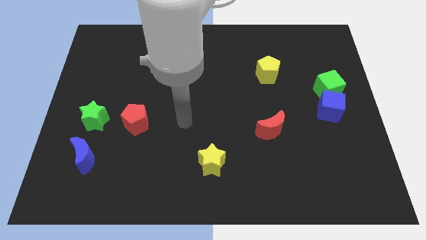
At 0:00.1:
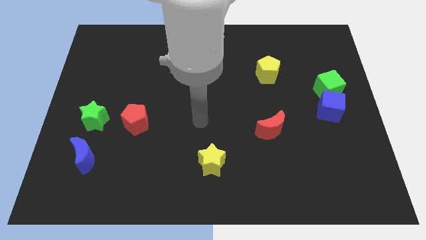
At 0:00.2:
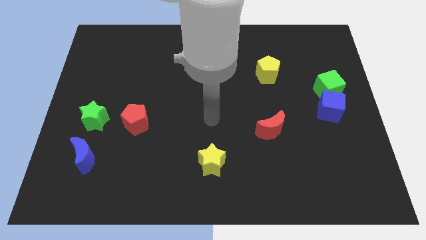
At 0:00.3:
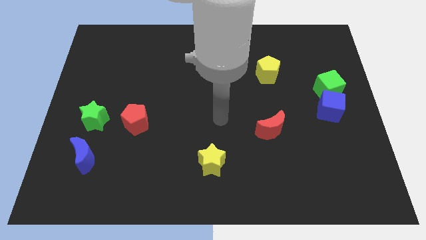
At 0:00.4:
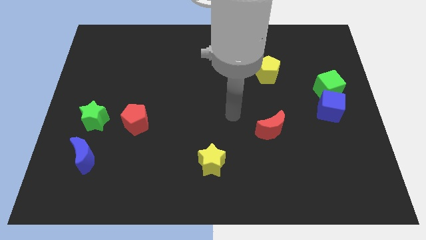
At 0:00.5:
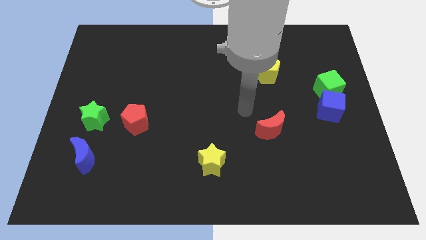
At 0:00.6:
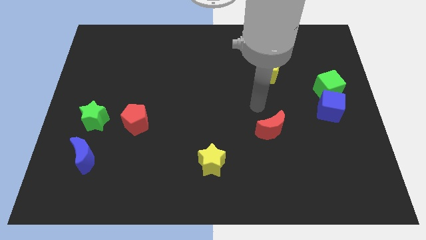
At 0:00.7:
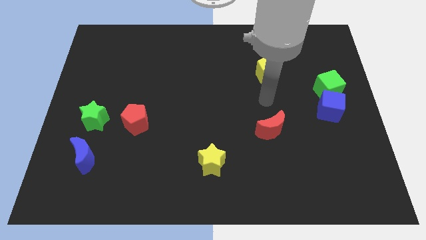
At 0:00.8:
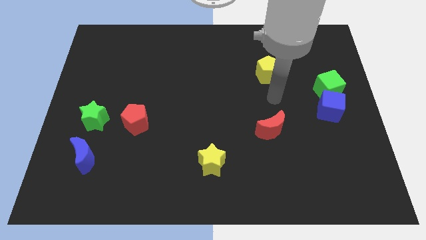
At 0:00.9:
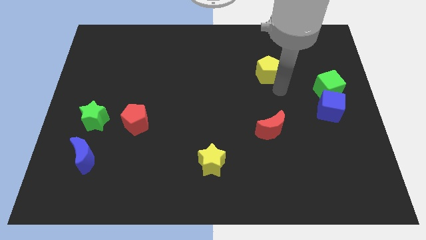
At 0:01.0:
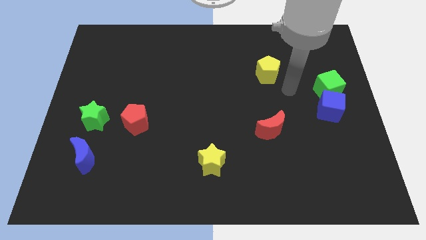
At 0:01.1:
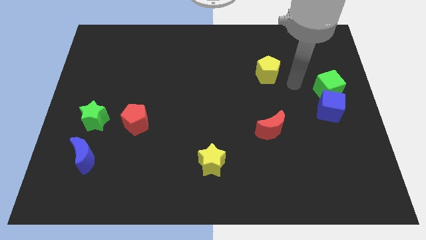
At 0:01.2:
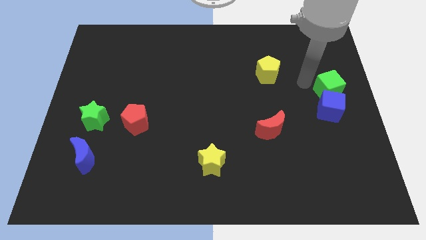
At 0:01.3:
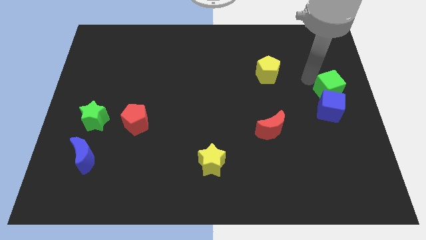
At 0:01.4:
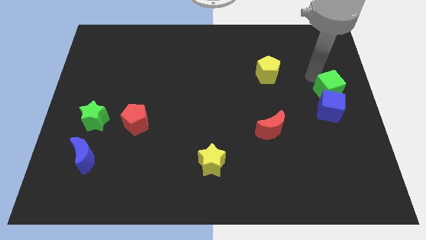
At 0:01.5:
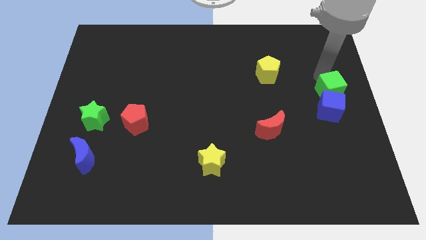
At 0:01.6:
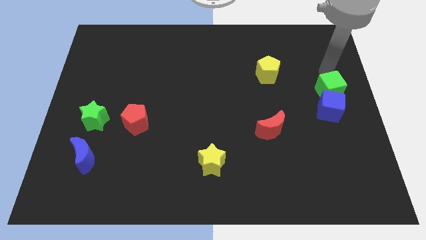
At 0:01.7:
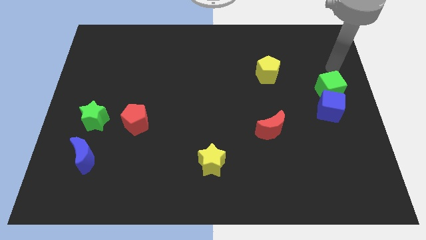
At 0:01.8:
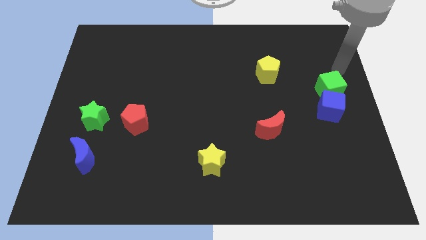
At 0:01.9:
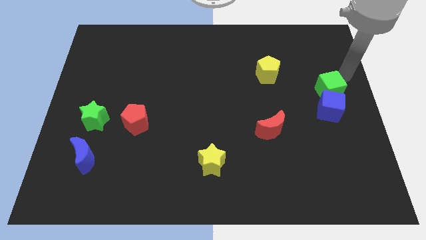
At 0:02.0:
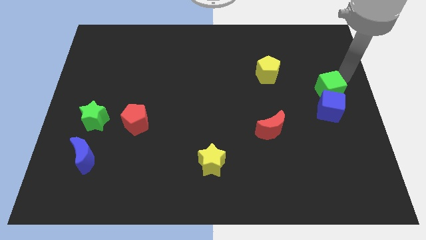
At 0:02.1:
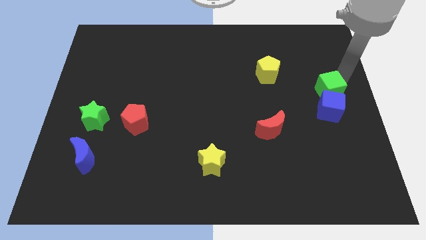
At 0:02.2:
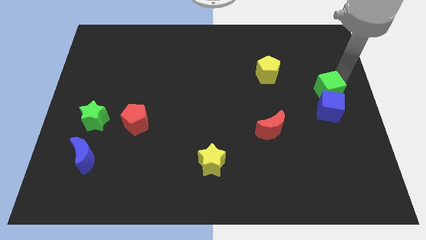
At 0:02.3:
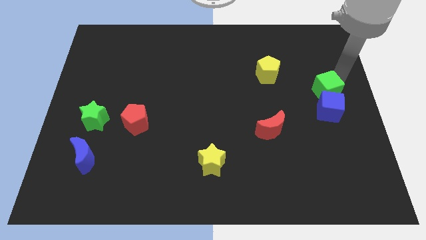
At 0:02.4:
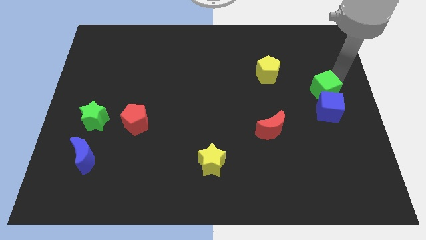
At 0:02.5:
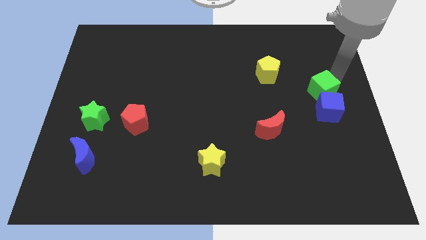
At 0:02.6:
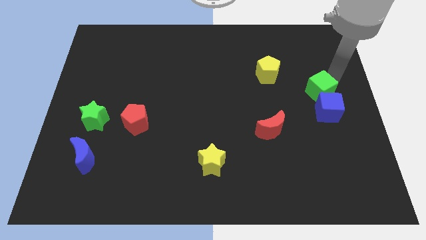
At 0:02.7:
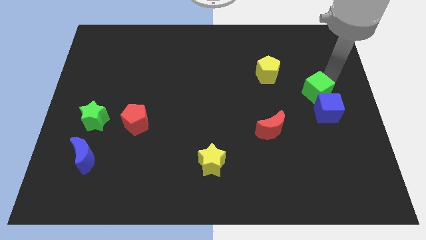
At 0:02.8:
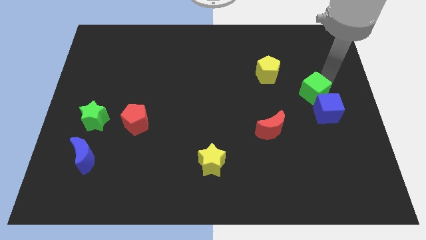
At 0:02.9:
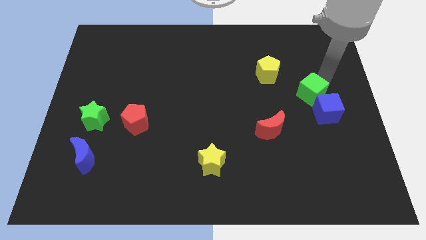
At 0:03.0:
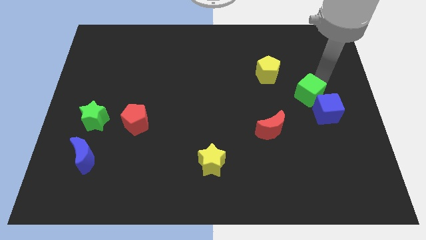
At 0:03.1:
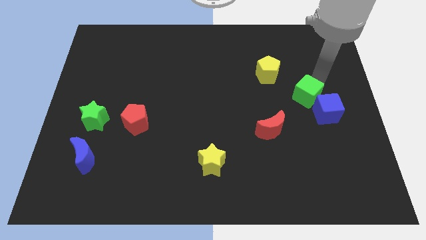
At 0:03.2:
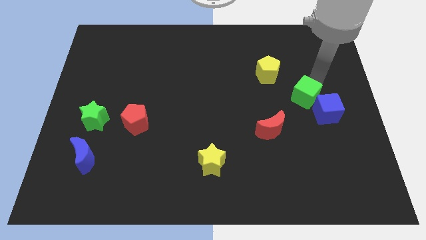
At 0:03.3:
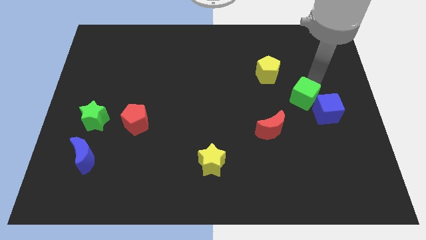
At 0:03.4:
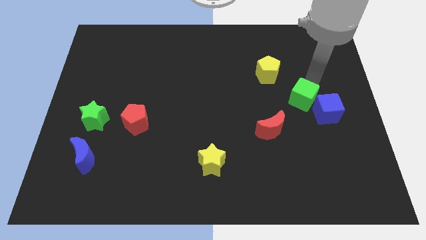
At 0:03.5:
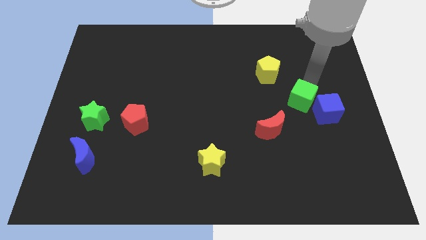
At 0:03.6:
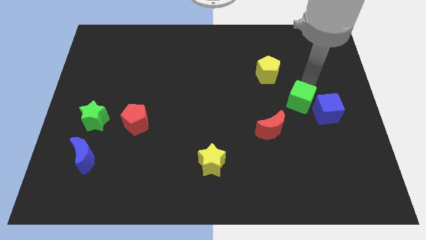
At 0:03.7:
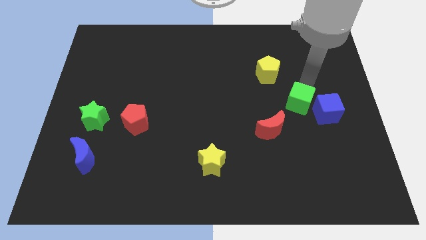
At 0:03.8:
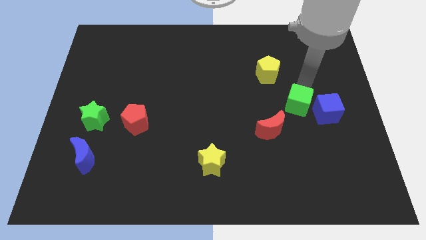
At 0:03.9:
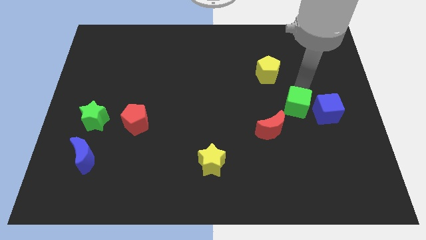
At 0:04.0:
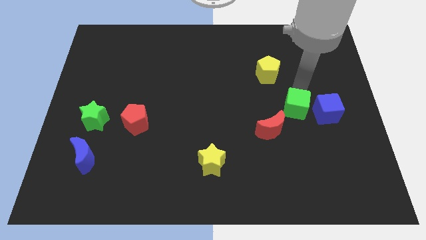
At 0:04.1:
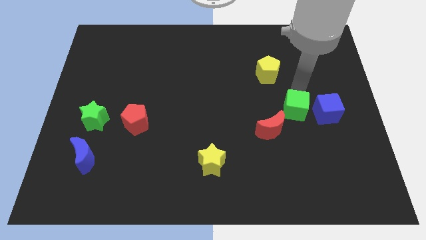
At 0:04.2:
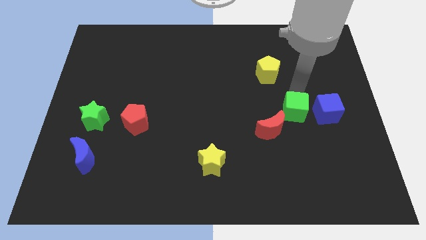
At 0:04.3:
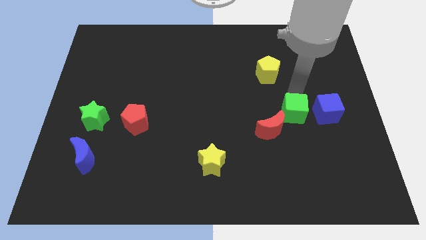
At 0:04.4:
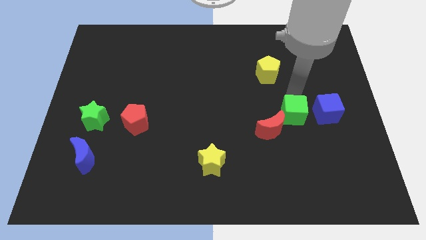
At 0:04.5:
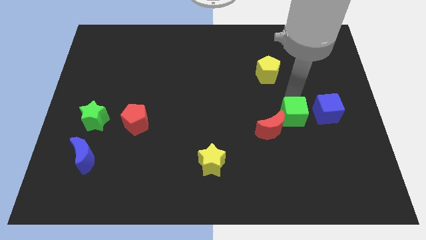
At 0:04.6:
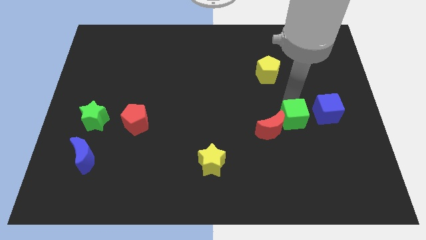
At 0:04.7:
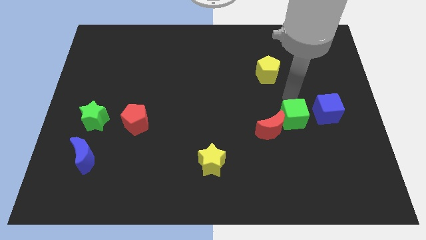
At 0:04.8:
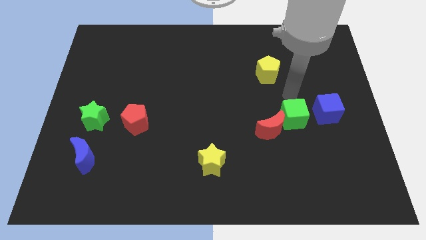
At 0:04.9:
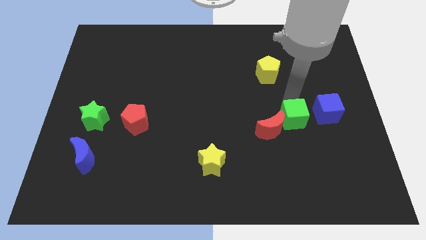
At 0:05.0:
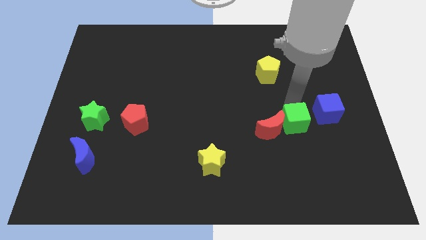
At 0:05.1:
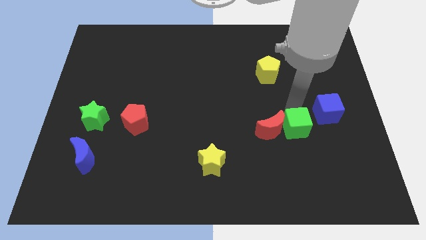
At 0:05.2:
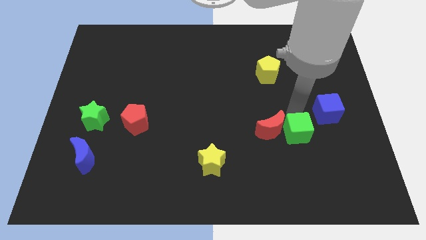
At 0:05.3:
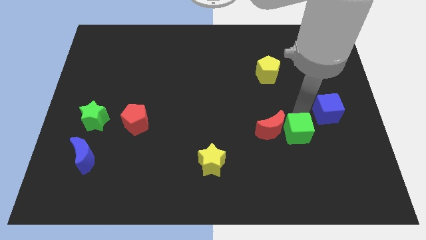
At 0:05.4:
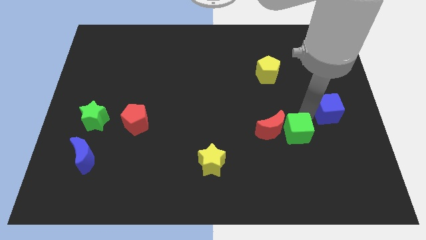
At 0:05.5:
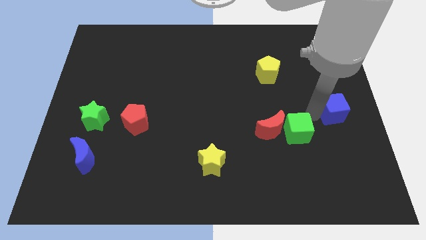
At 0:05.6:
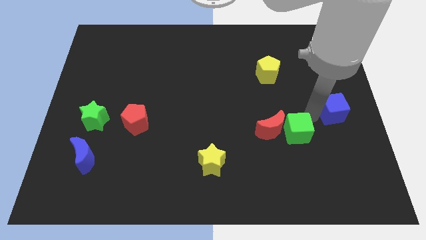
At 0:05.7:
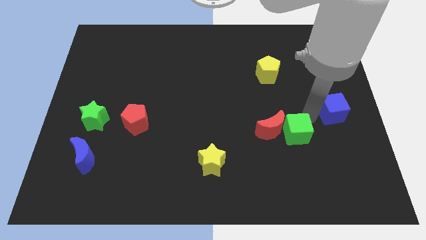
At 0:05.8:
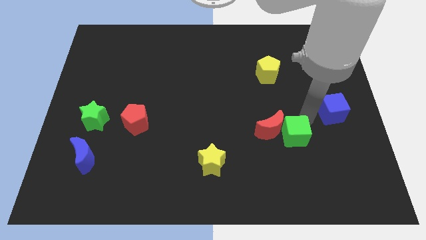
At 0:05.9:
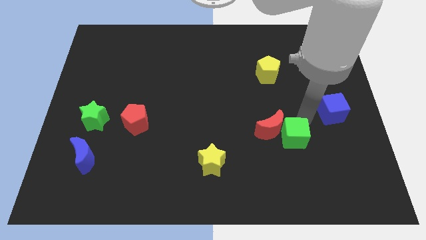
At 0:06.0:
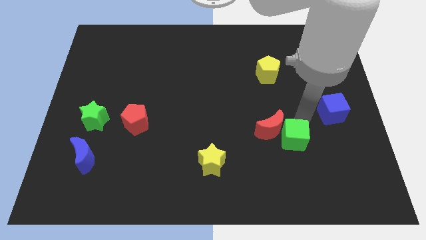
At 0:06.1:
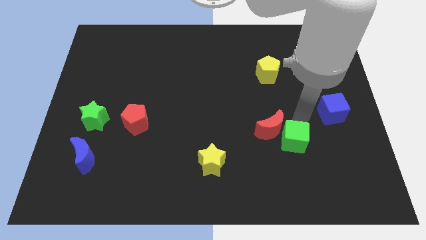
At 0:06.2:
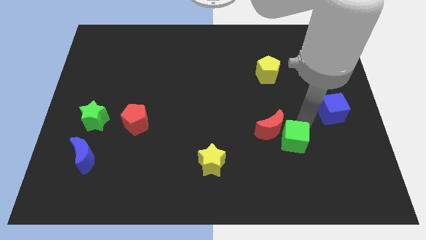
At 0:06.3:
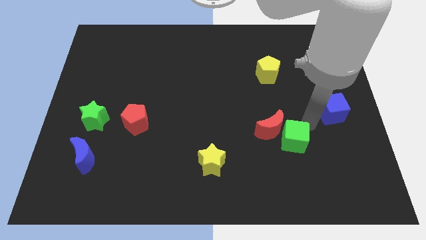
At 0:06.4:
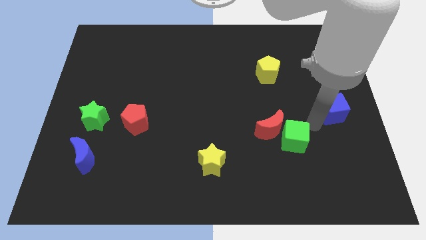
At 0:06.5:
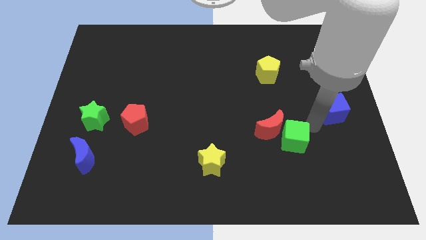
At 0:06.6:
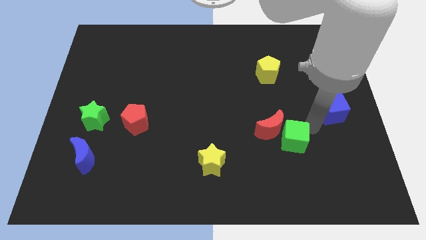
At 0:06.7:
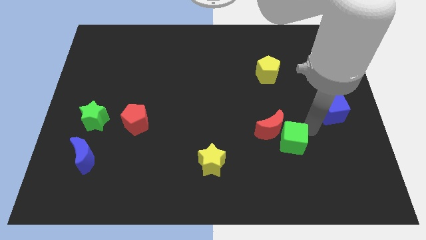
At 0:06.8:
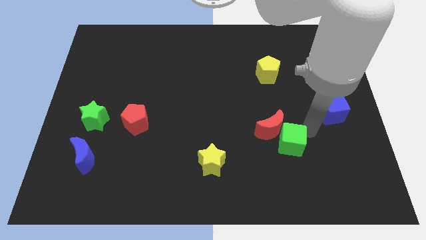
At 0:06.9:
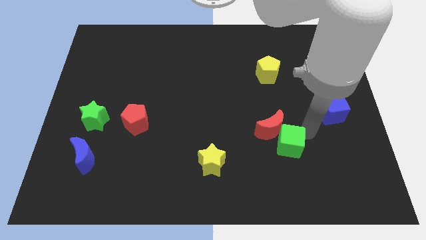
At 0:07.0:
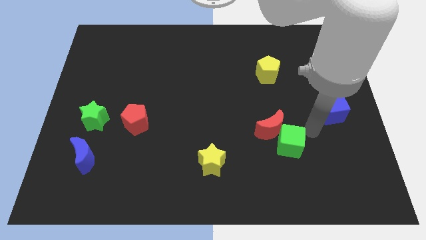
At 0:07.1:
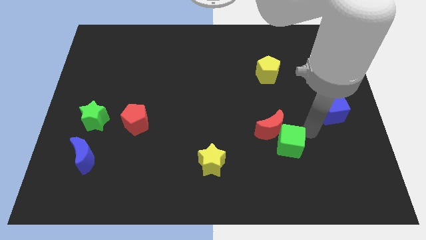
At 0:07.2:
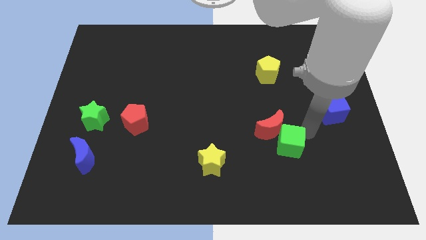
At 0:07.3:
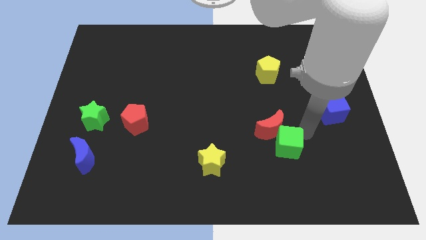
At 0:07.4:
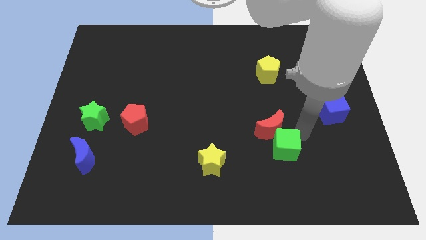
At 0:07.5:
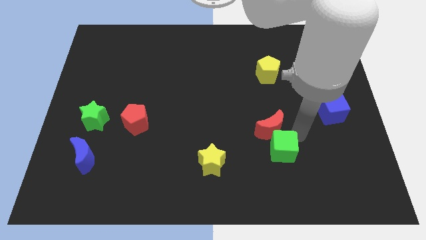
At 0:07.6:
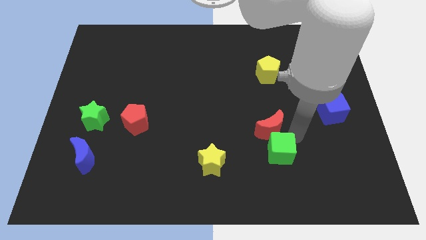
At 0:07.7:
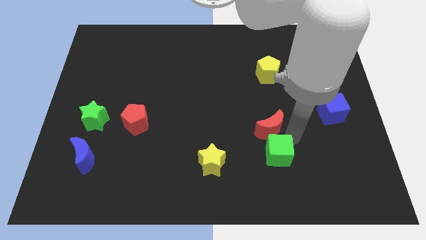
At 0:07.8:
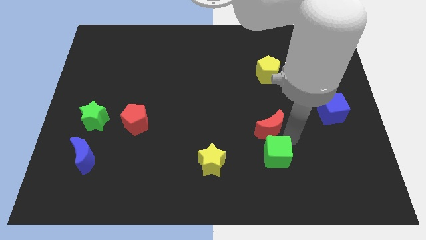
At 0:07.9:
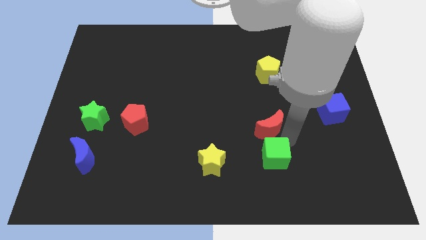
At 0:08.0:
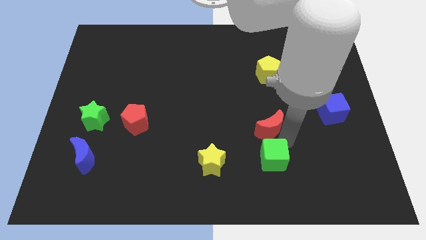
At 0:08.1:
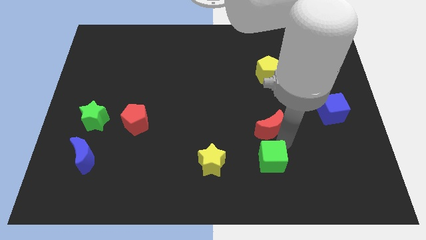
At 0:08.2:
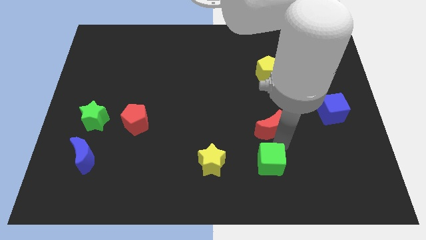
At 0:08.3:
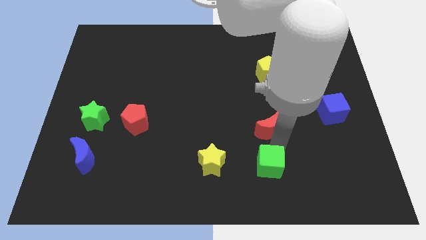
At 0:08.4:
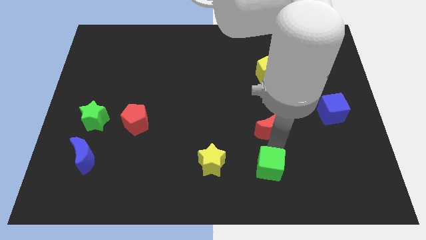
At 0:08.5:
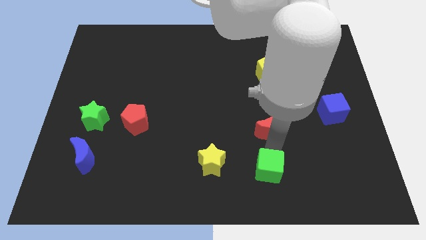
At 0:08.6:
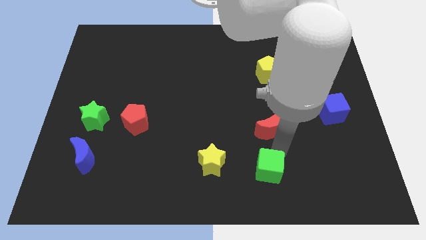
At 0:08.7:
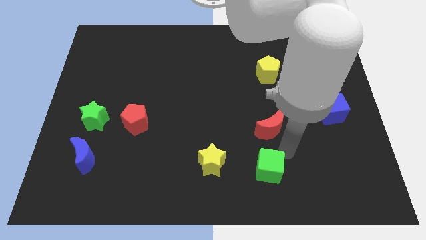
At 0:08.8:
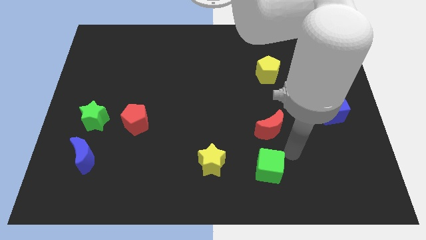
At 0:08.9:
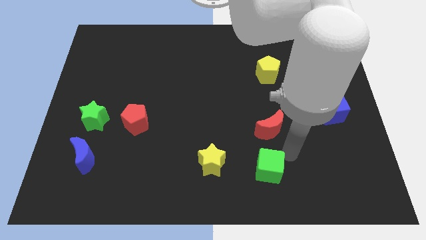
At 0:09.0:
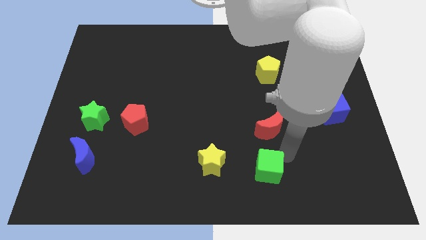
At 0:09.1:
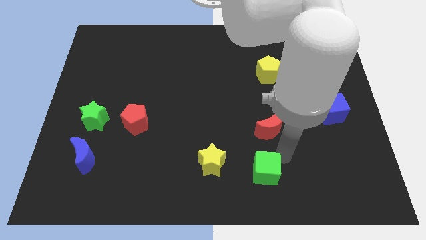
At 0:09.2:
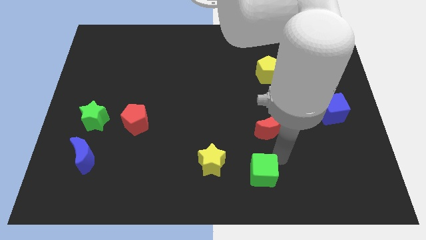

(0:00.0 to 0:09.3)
slide the green cube to the bottom
